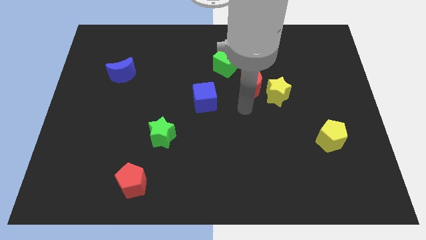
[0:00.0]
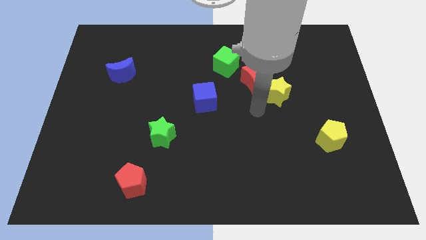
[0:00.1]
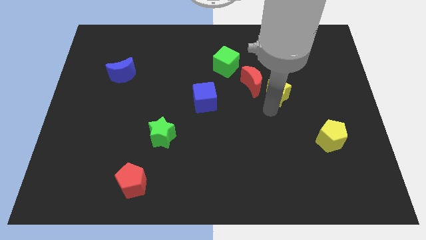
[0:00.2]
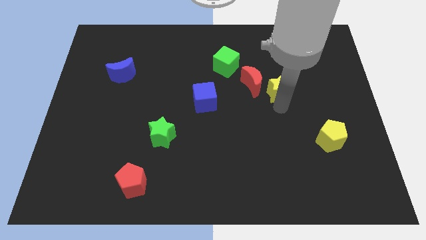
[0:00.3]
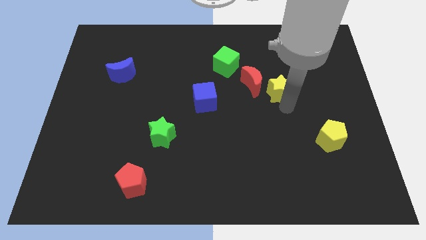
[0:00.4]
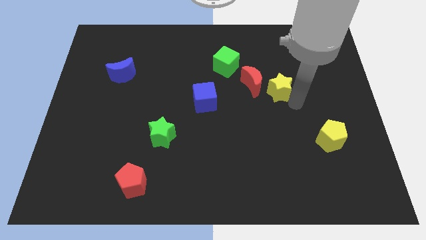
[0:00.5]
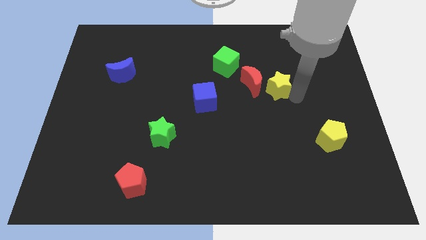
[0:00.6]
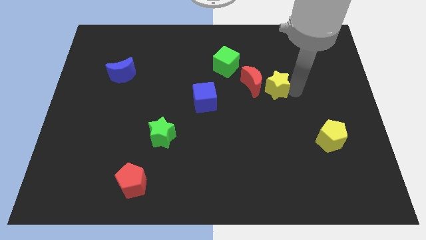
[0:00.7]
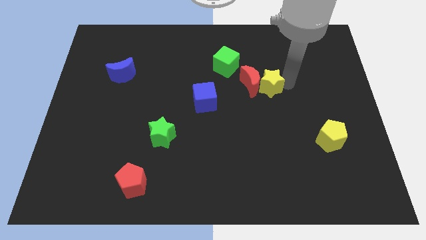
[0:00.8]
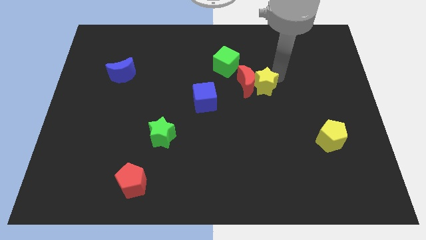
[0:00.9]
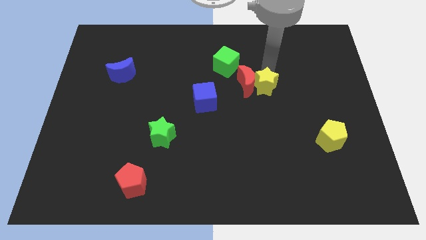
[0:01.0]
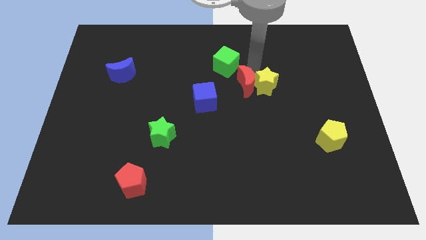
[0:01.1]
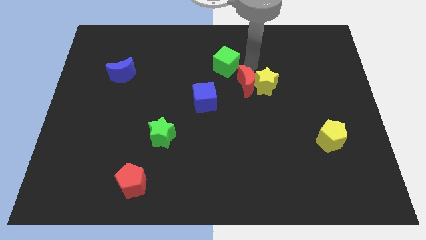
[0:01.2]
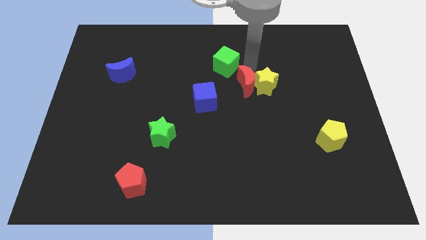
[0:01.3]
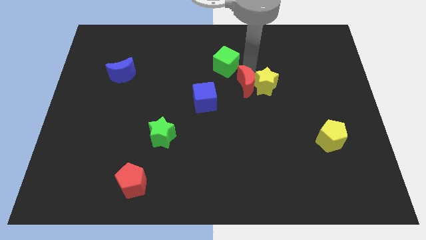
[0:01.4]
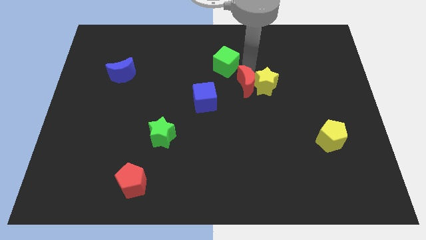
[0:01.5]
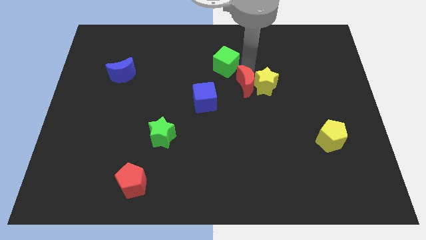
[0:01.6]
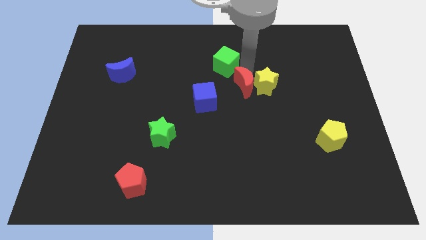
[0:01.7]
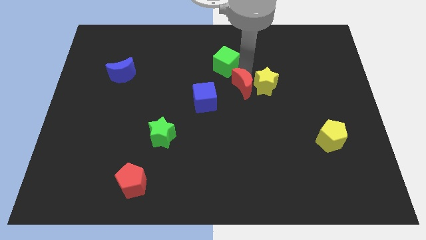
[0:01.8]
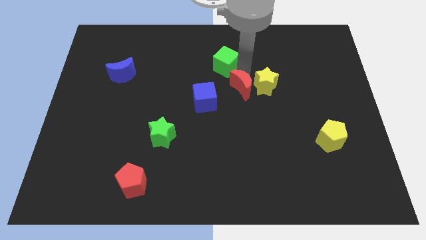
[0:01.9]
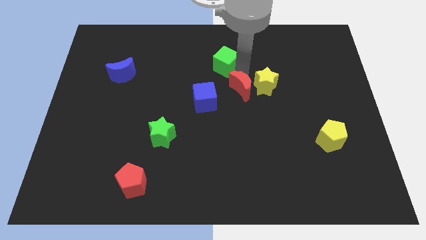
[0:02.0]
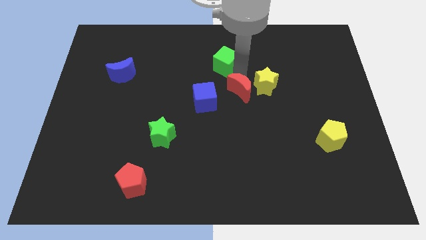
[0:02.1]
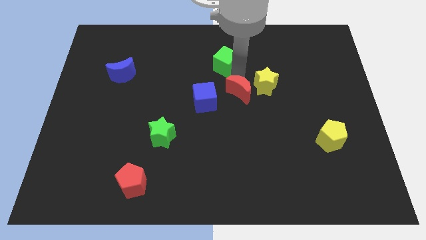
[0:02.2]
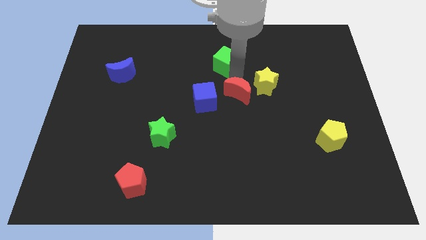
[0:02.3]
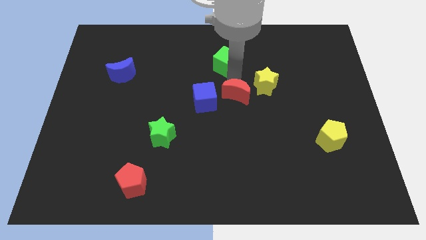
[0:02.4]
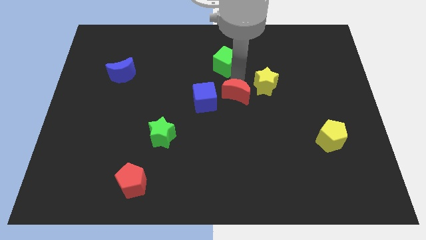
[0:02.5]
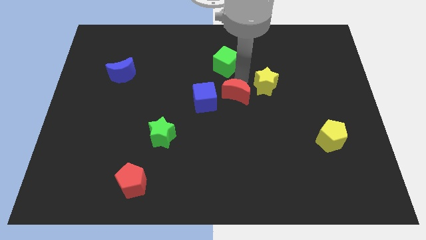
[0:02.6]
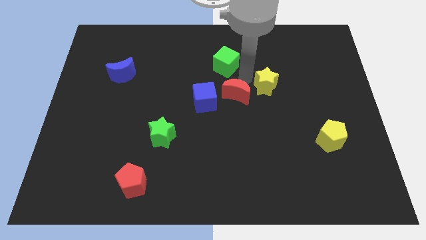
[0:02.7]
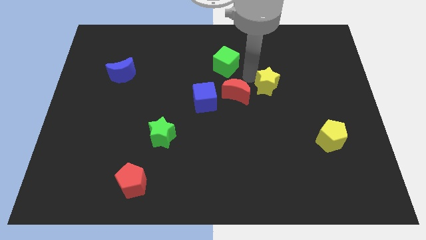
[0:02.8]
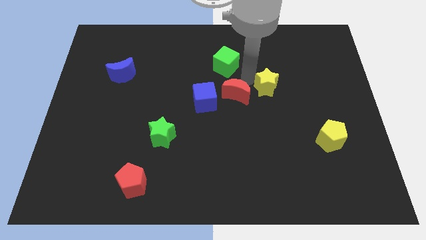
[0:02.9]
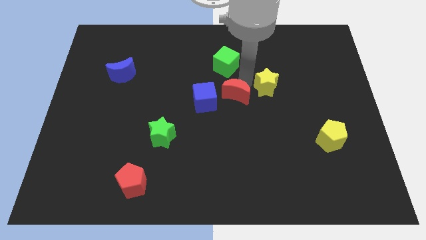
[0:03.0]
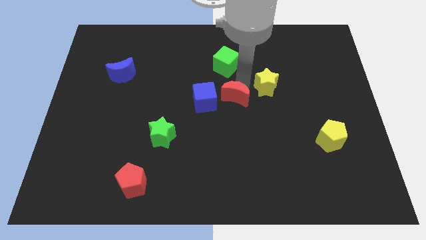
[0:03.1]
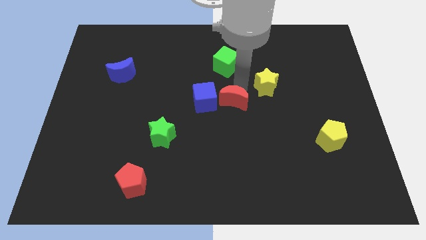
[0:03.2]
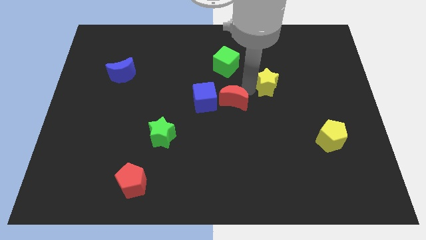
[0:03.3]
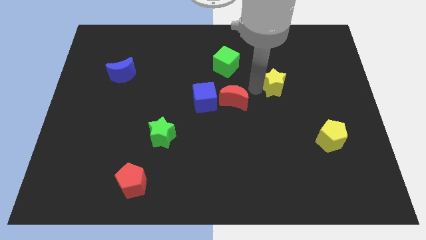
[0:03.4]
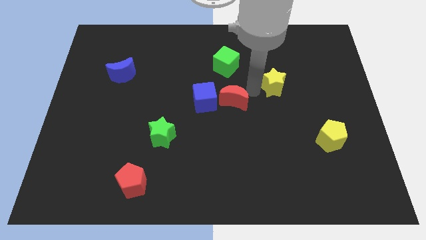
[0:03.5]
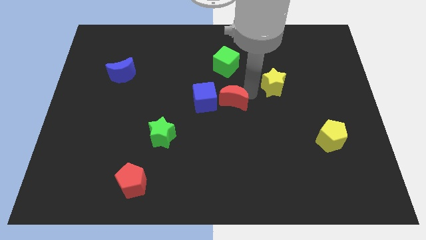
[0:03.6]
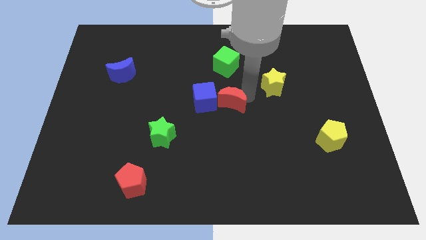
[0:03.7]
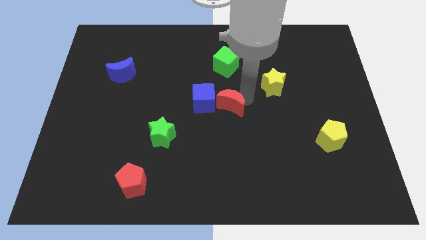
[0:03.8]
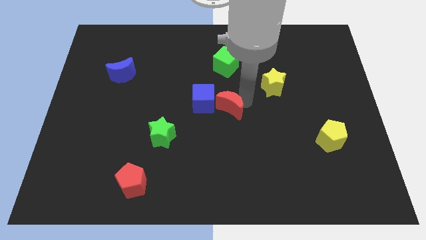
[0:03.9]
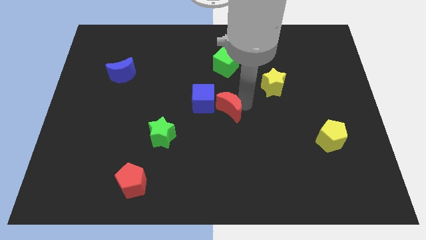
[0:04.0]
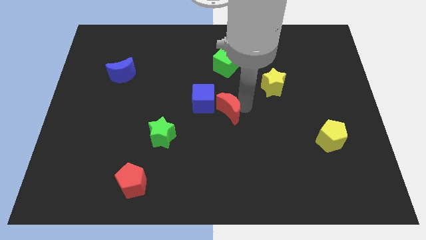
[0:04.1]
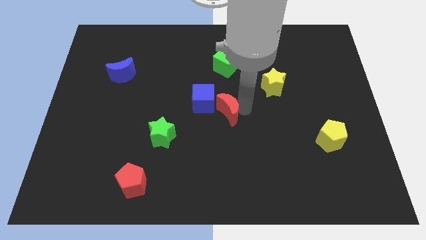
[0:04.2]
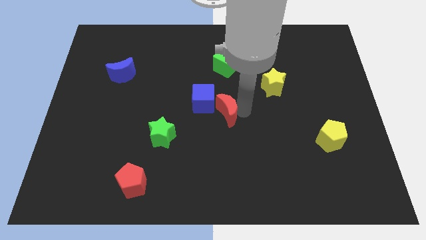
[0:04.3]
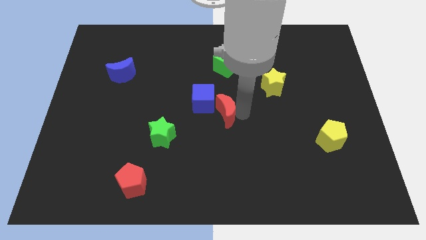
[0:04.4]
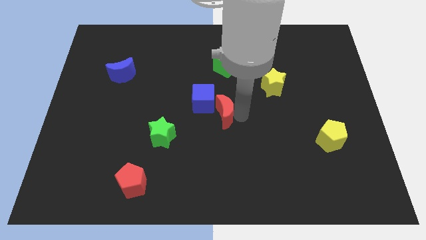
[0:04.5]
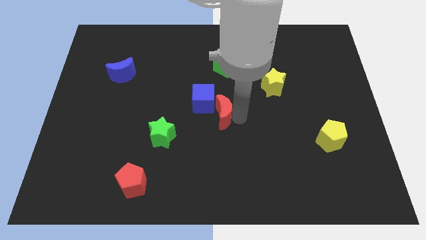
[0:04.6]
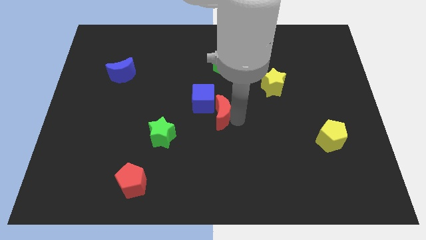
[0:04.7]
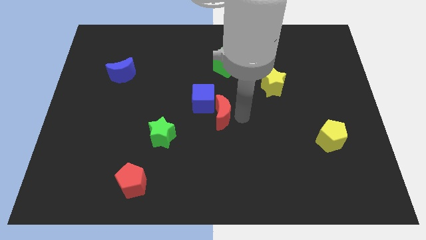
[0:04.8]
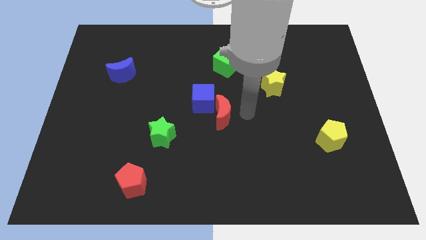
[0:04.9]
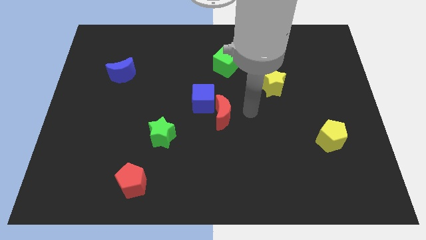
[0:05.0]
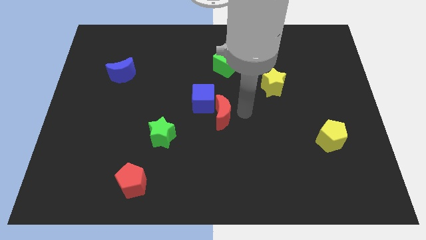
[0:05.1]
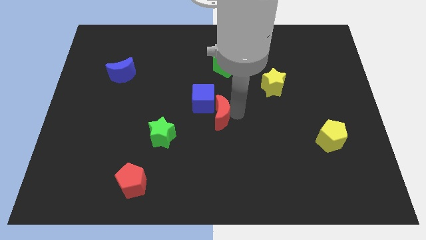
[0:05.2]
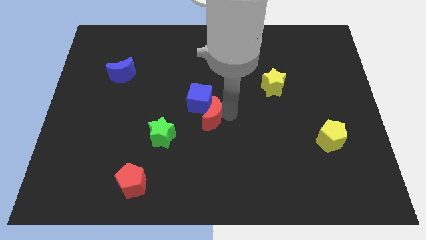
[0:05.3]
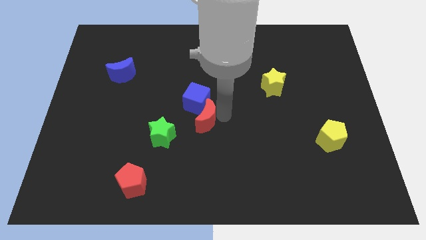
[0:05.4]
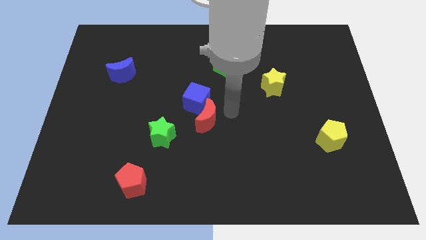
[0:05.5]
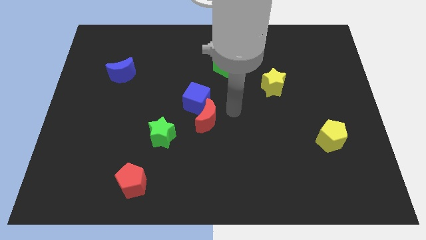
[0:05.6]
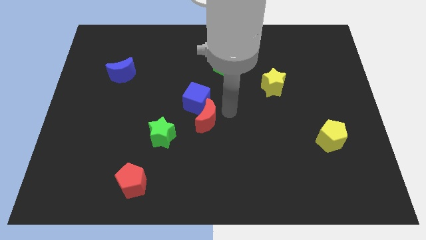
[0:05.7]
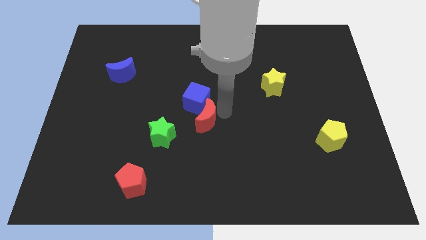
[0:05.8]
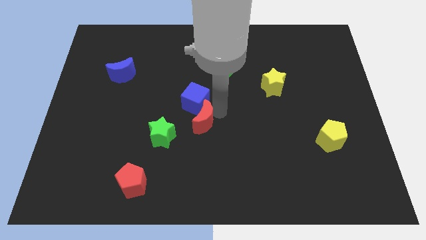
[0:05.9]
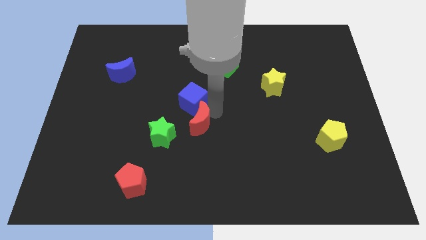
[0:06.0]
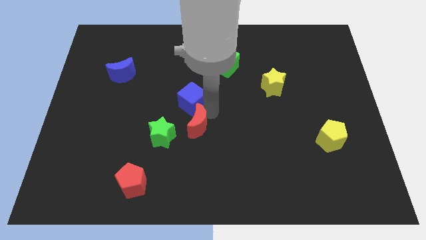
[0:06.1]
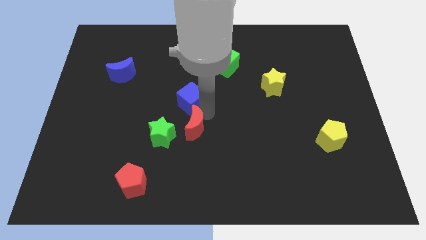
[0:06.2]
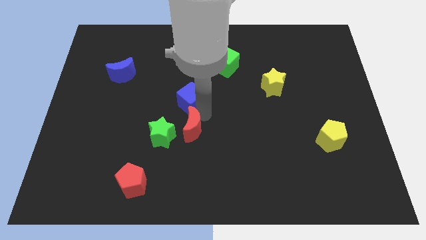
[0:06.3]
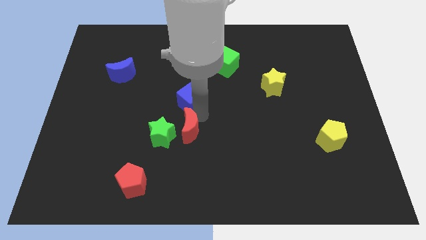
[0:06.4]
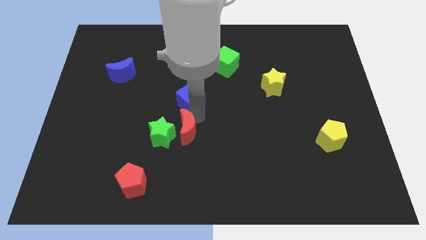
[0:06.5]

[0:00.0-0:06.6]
put the red moon to the green star

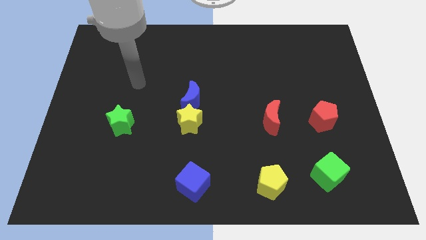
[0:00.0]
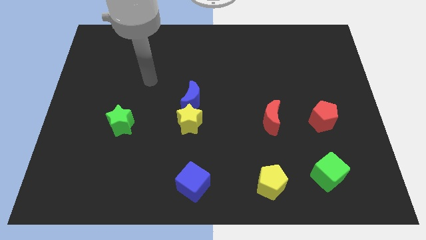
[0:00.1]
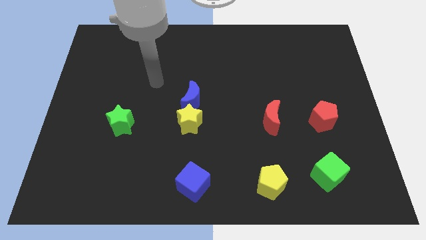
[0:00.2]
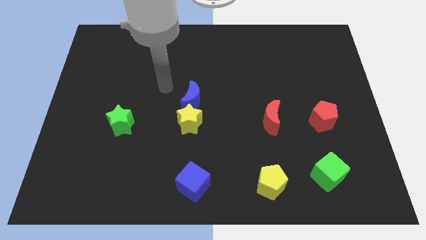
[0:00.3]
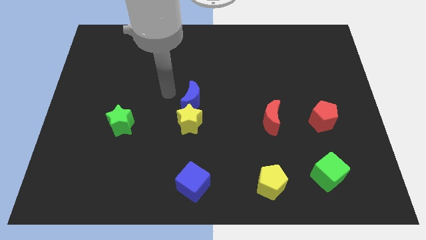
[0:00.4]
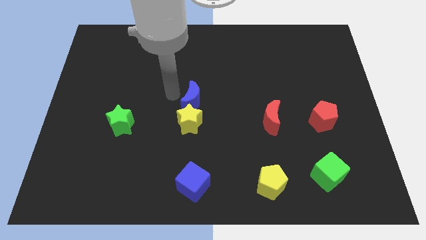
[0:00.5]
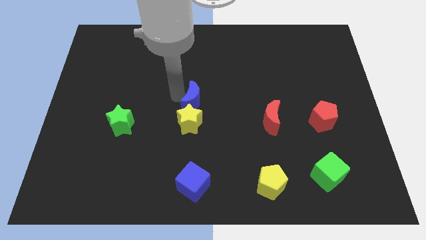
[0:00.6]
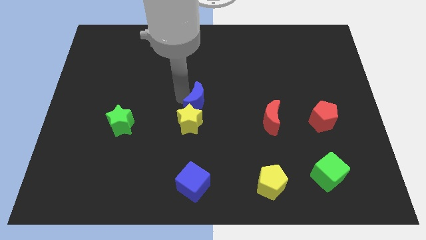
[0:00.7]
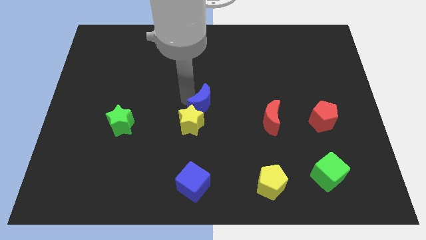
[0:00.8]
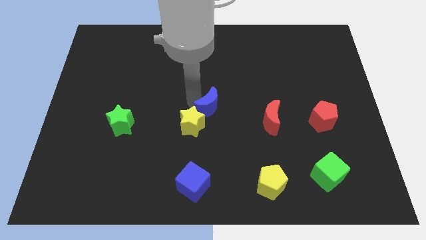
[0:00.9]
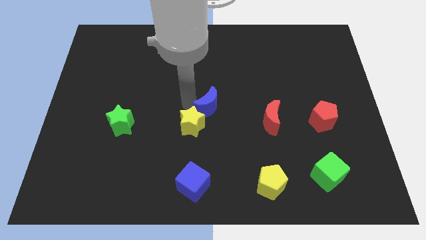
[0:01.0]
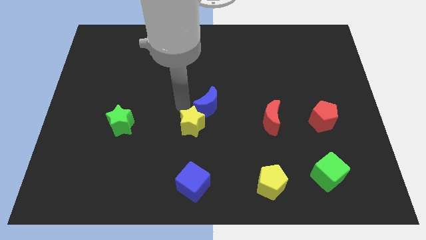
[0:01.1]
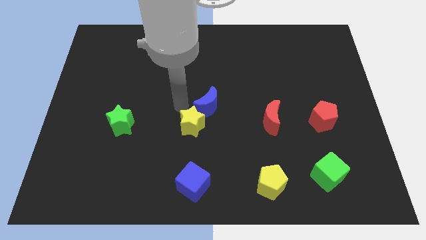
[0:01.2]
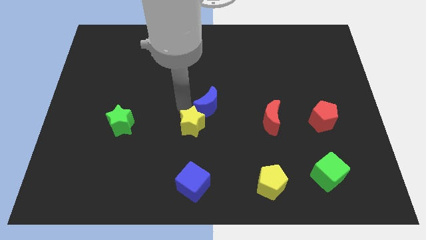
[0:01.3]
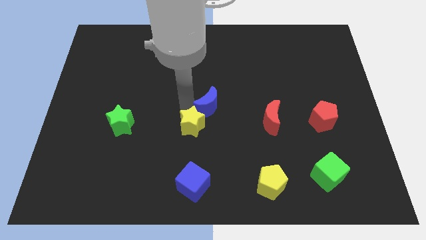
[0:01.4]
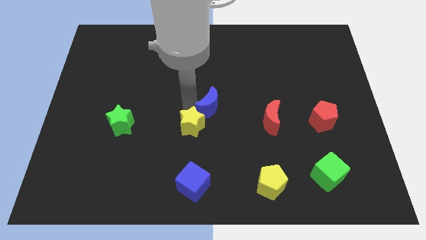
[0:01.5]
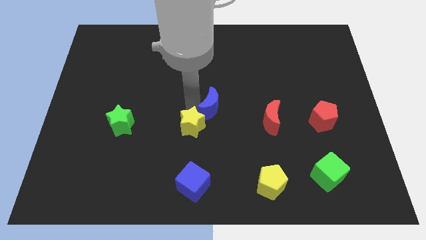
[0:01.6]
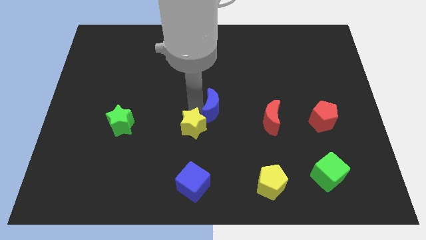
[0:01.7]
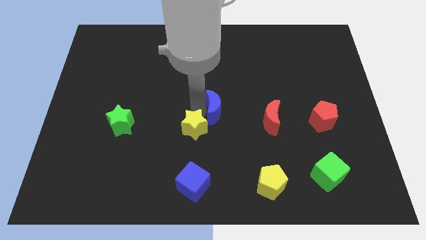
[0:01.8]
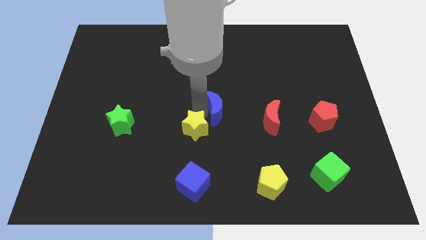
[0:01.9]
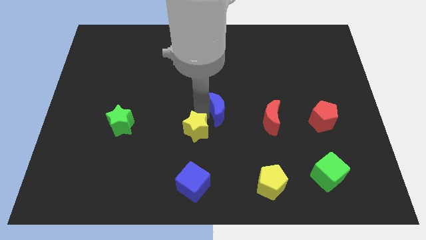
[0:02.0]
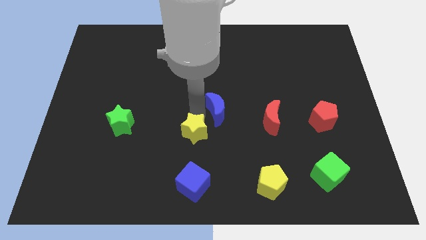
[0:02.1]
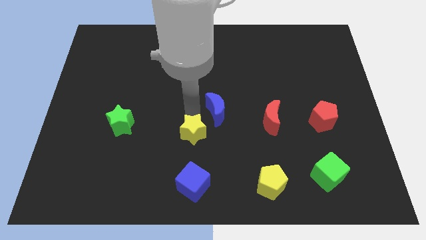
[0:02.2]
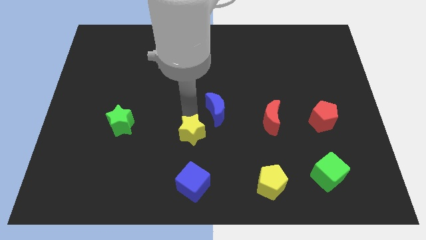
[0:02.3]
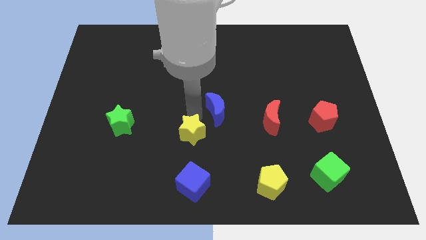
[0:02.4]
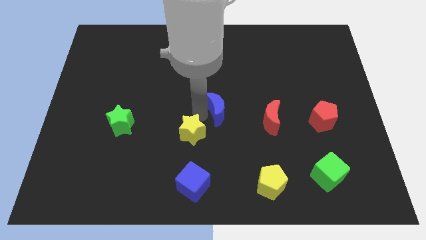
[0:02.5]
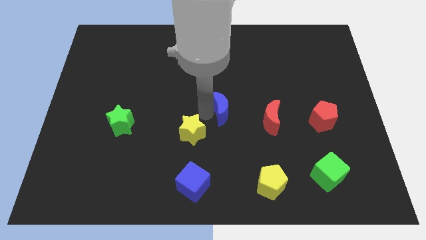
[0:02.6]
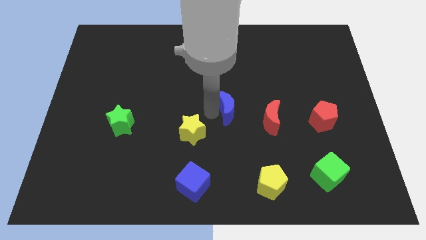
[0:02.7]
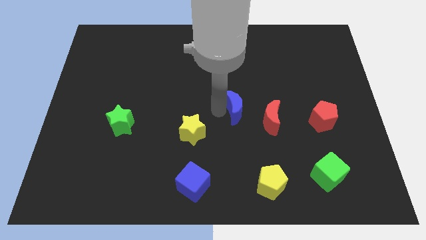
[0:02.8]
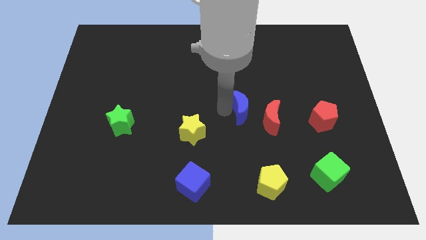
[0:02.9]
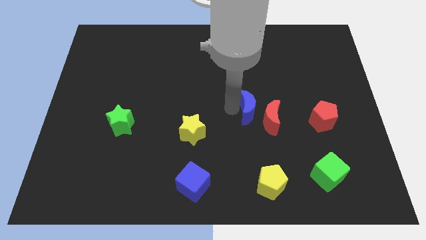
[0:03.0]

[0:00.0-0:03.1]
move the blue moon towards the red moon
